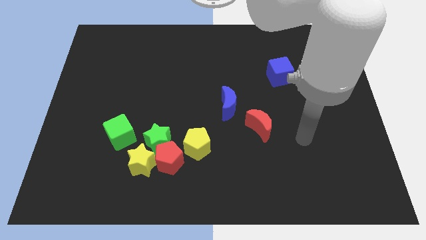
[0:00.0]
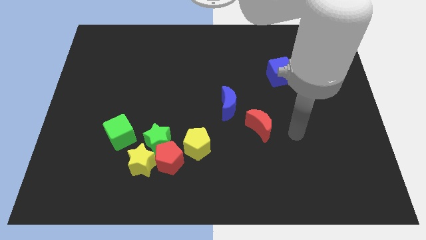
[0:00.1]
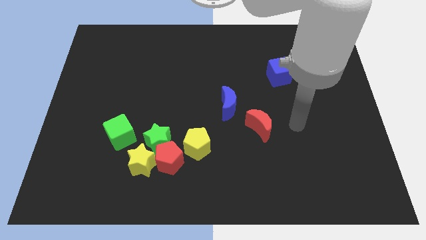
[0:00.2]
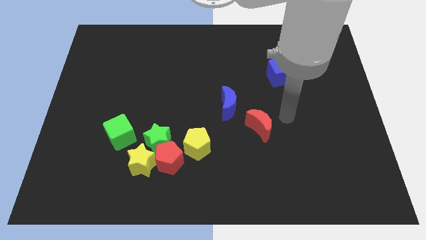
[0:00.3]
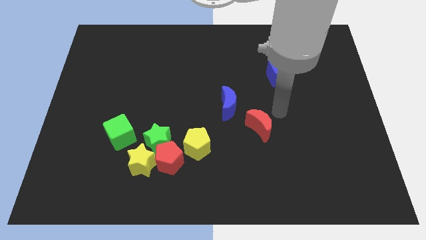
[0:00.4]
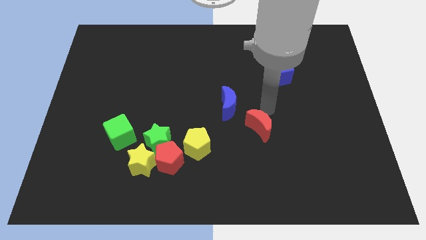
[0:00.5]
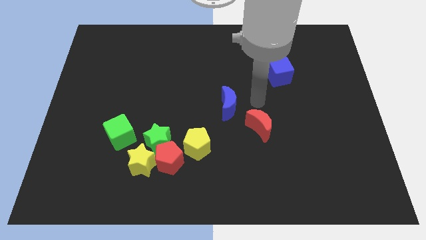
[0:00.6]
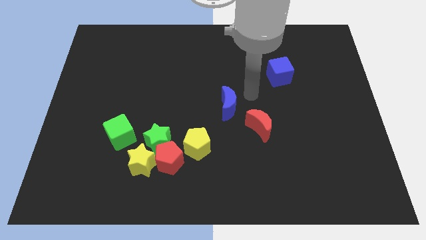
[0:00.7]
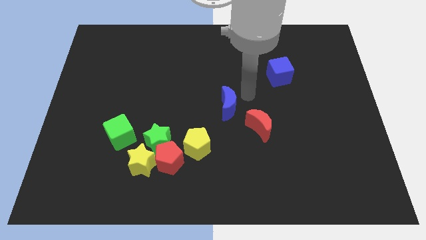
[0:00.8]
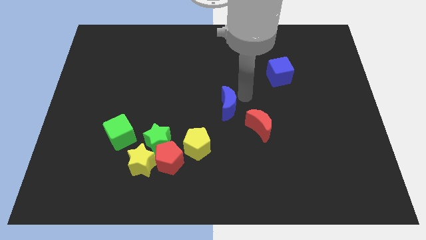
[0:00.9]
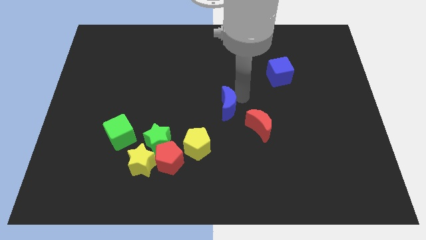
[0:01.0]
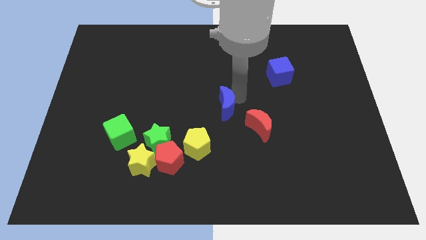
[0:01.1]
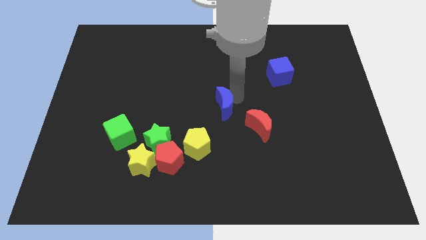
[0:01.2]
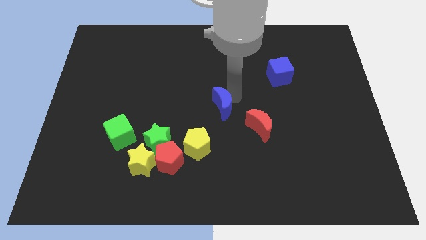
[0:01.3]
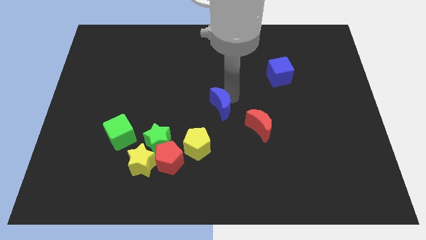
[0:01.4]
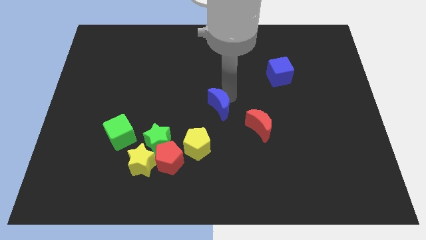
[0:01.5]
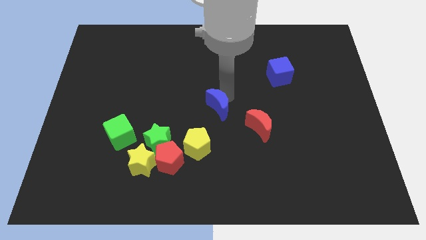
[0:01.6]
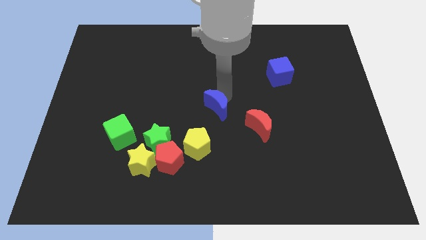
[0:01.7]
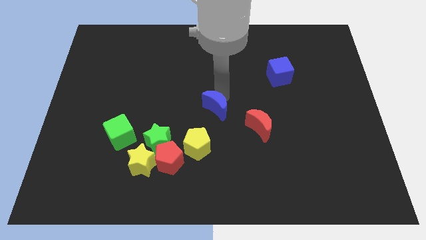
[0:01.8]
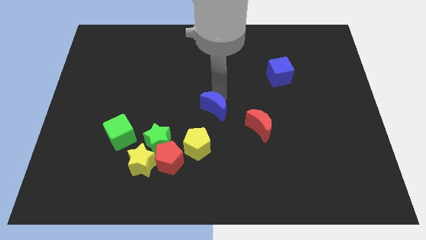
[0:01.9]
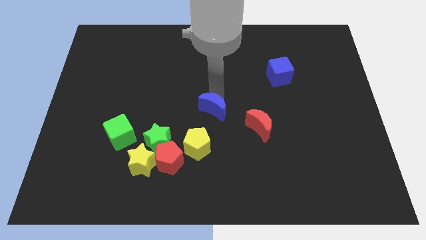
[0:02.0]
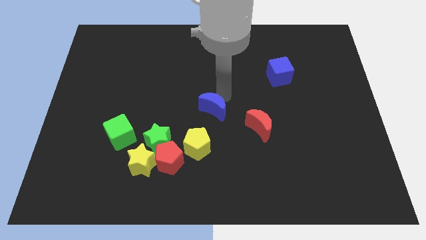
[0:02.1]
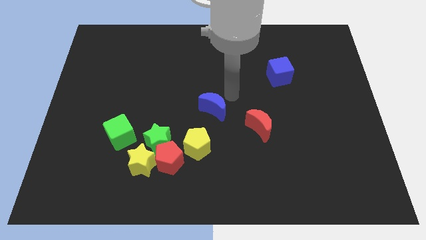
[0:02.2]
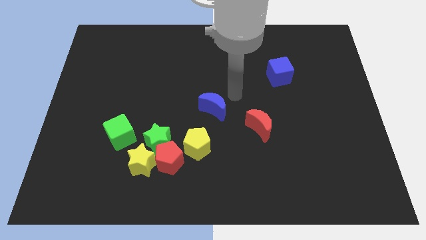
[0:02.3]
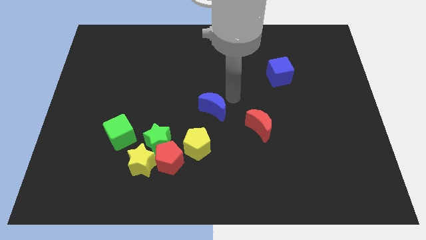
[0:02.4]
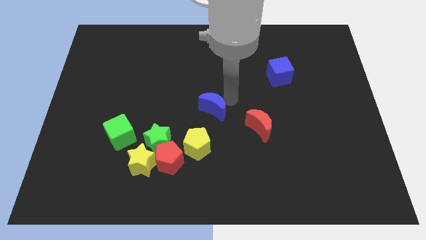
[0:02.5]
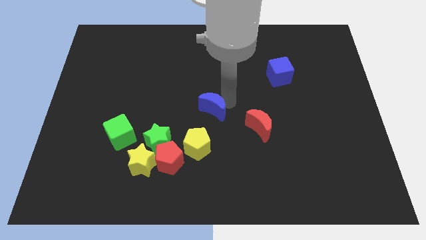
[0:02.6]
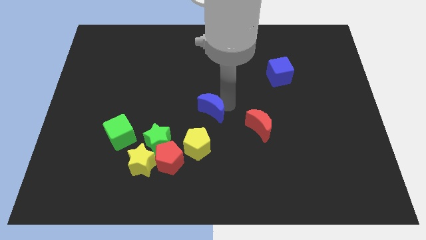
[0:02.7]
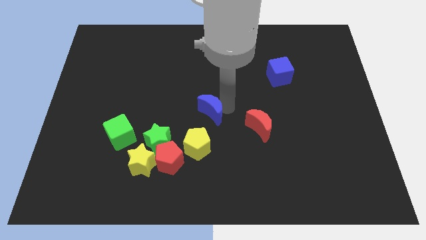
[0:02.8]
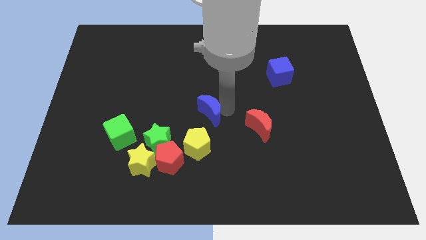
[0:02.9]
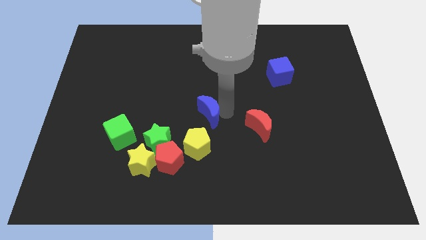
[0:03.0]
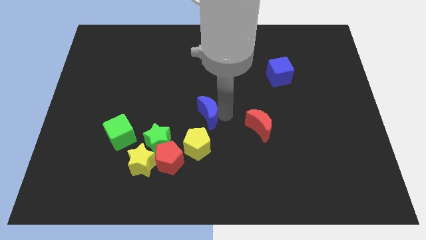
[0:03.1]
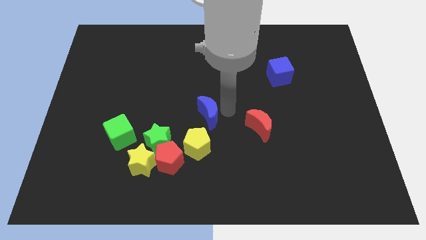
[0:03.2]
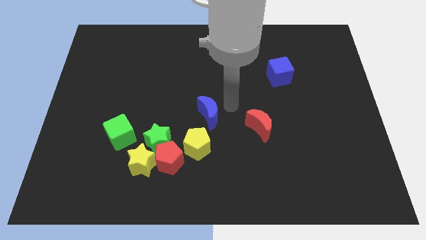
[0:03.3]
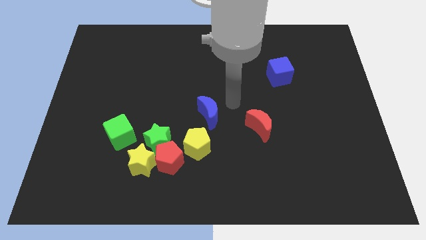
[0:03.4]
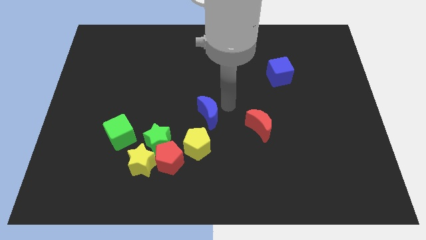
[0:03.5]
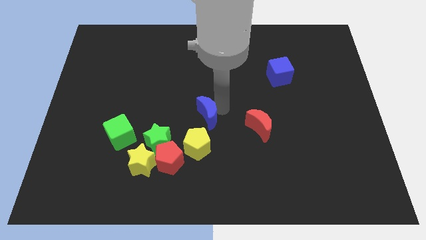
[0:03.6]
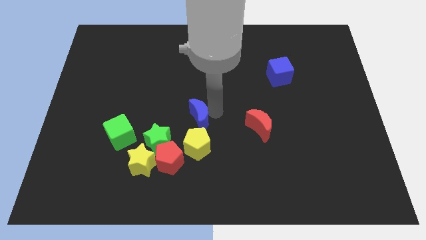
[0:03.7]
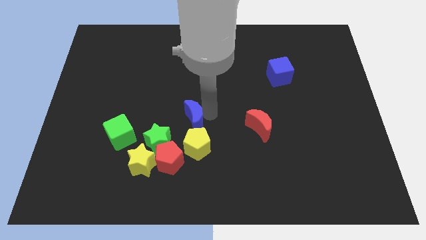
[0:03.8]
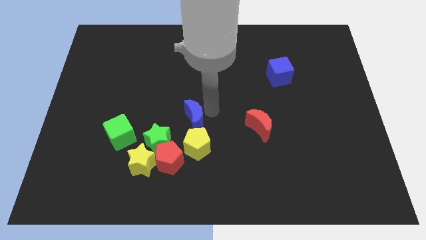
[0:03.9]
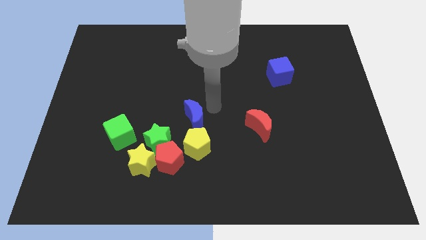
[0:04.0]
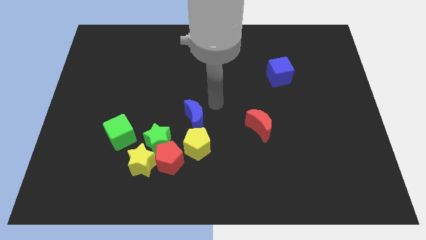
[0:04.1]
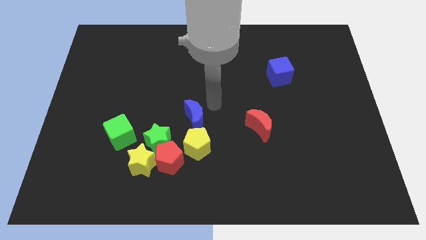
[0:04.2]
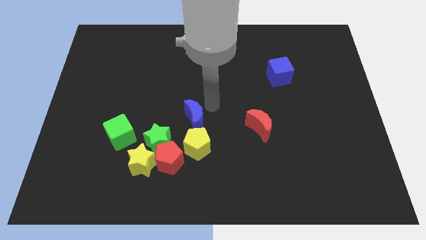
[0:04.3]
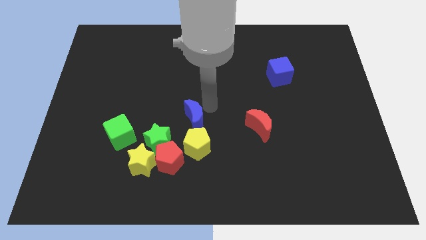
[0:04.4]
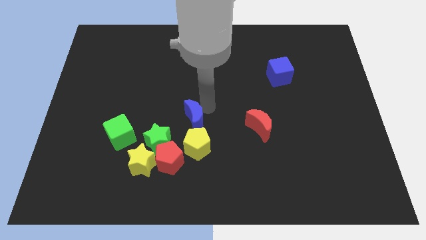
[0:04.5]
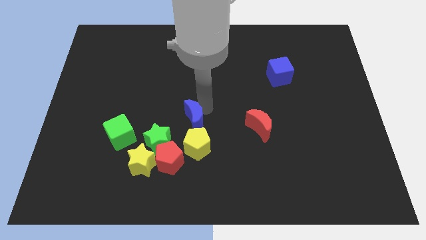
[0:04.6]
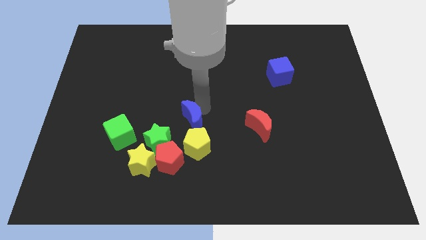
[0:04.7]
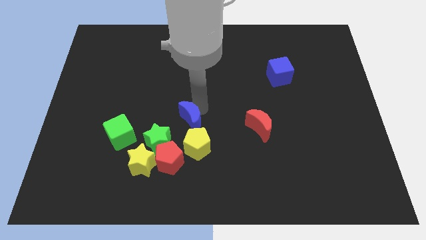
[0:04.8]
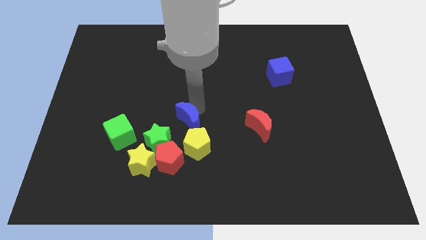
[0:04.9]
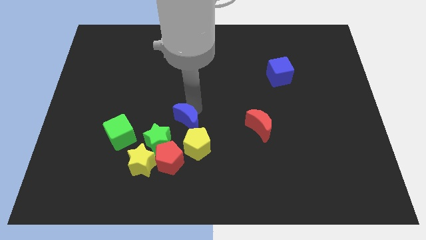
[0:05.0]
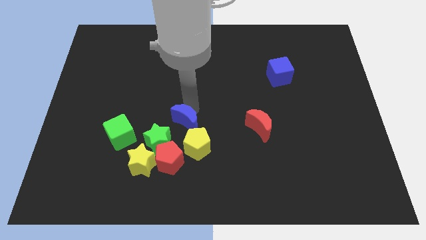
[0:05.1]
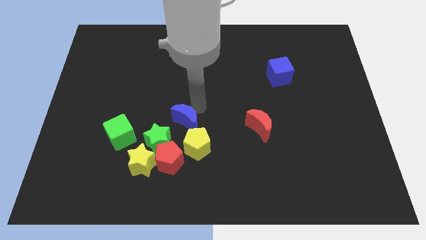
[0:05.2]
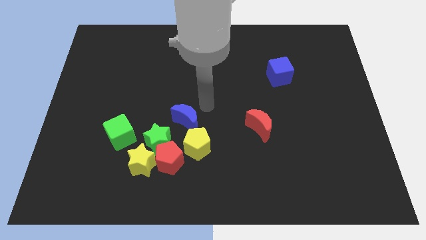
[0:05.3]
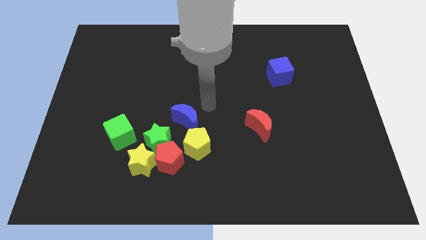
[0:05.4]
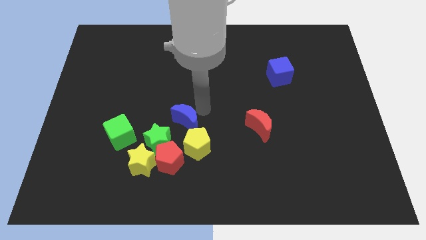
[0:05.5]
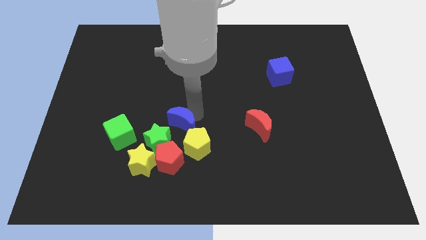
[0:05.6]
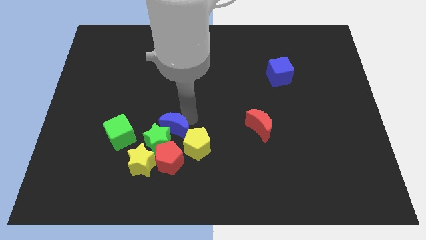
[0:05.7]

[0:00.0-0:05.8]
slide the blue moon next to the green star

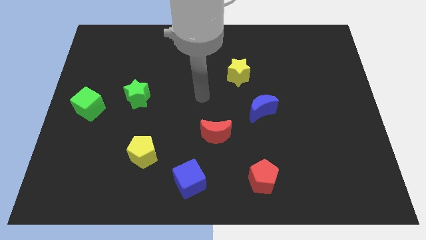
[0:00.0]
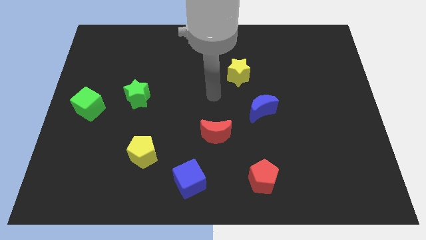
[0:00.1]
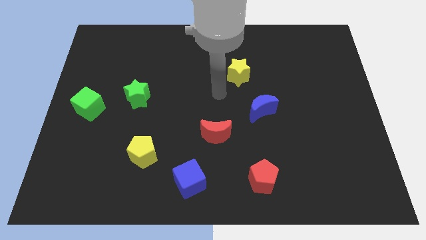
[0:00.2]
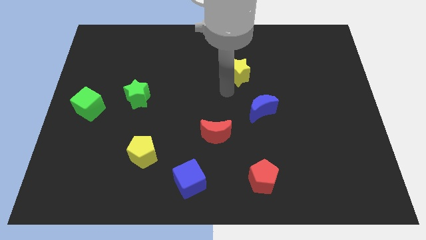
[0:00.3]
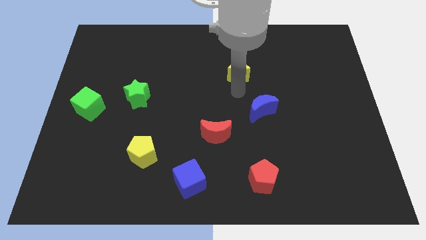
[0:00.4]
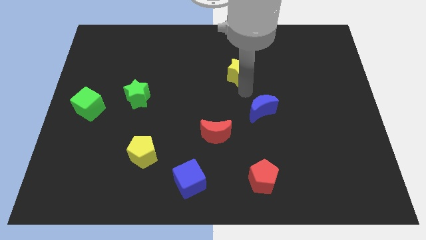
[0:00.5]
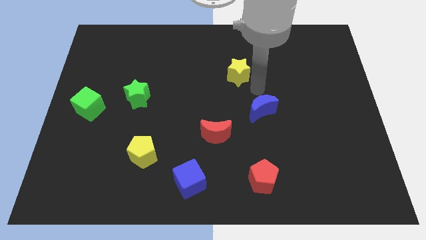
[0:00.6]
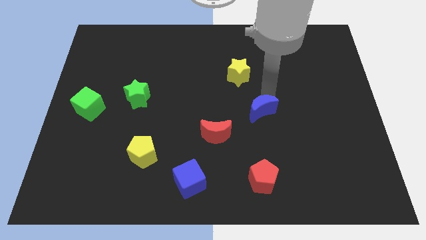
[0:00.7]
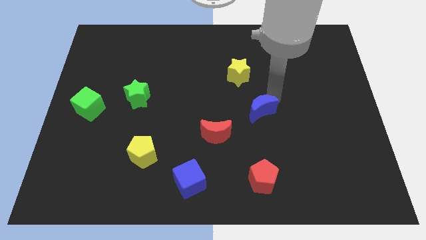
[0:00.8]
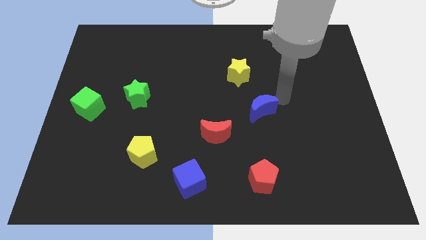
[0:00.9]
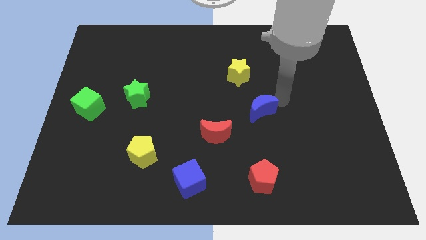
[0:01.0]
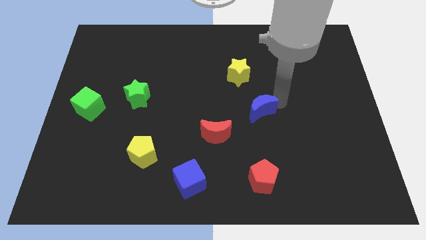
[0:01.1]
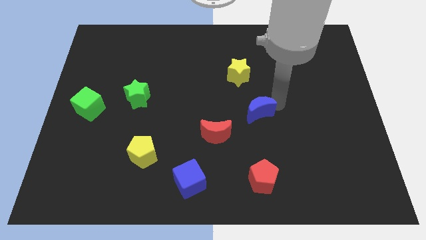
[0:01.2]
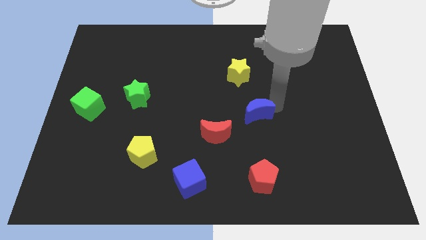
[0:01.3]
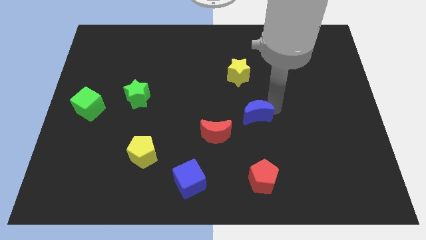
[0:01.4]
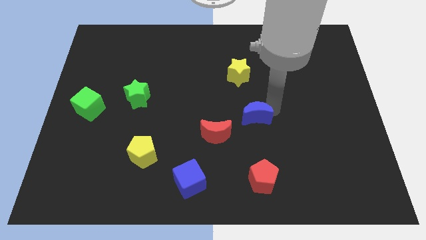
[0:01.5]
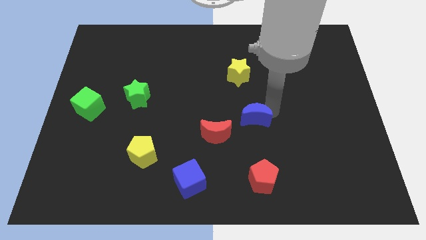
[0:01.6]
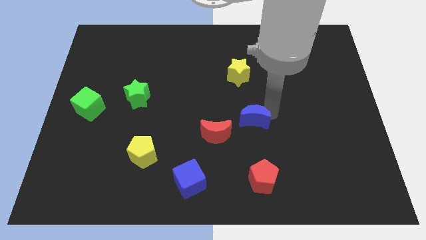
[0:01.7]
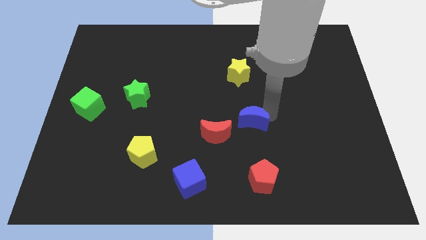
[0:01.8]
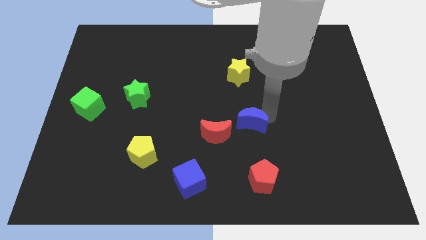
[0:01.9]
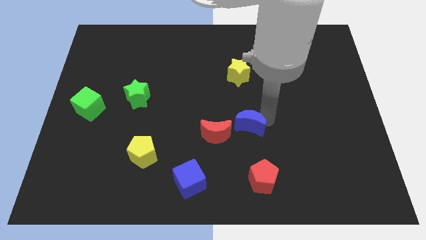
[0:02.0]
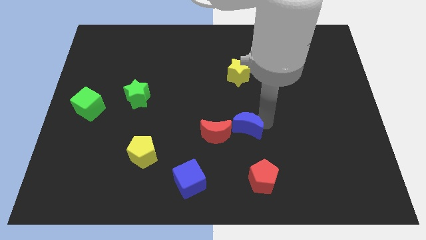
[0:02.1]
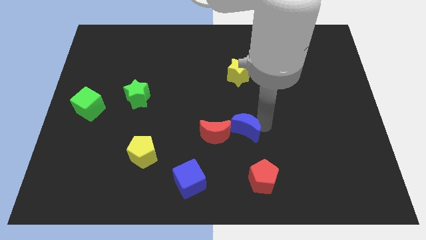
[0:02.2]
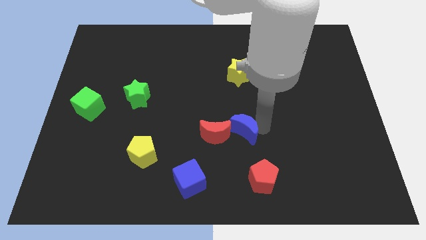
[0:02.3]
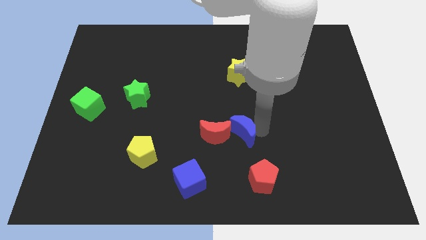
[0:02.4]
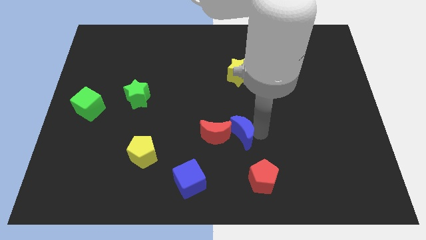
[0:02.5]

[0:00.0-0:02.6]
put the blue moon next to the red moon
